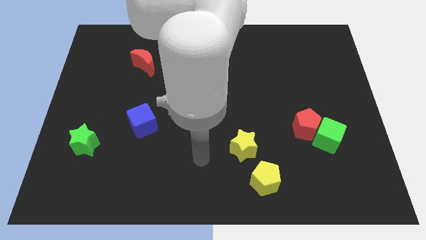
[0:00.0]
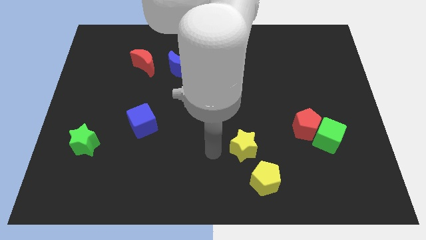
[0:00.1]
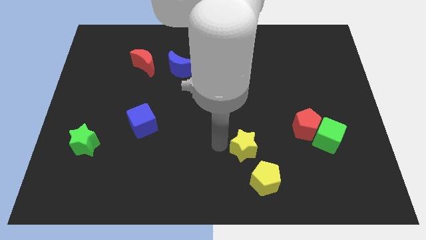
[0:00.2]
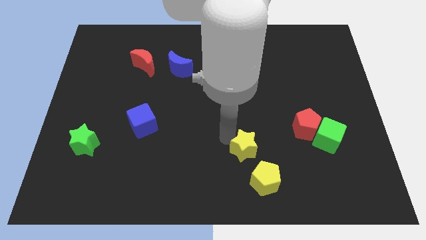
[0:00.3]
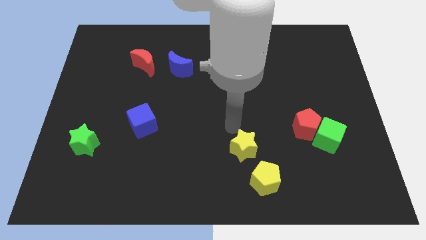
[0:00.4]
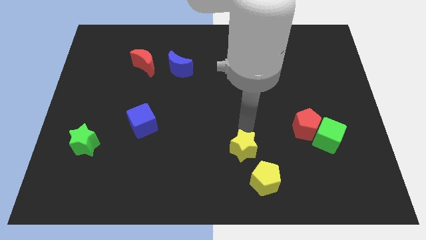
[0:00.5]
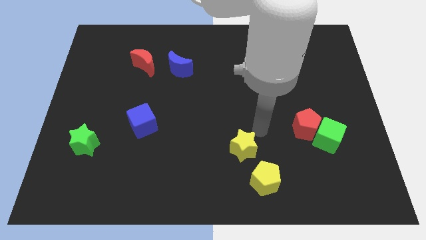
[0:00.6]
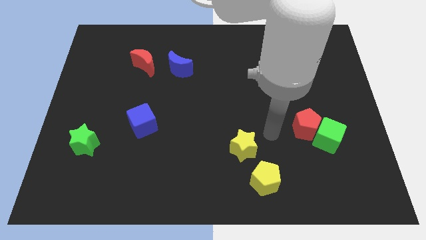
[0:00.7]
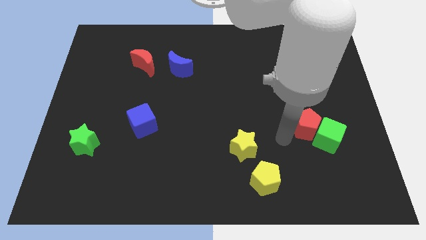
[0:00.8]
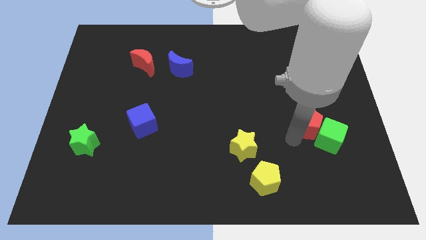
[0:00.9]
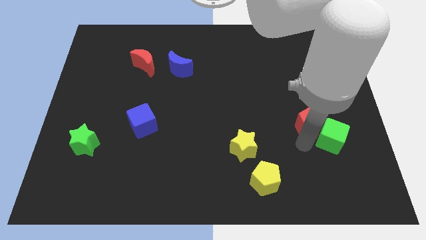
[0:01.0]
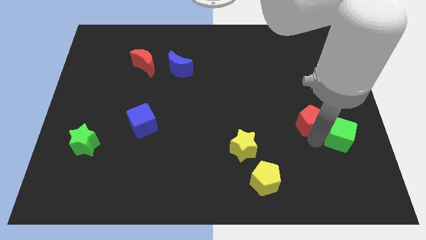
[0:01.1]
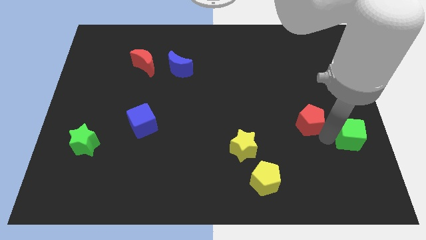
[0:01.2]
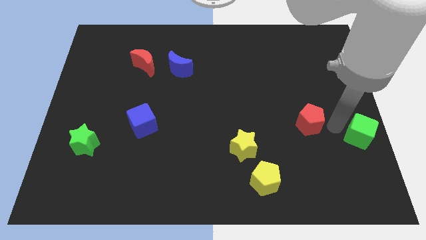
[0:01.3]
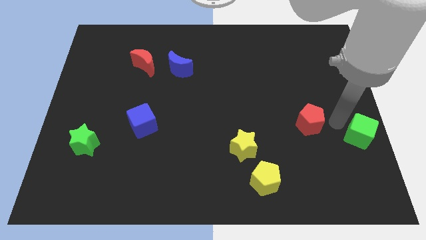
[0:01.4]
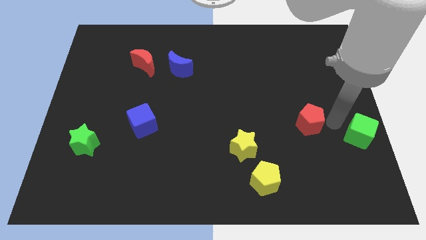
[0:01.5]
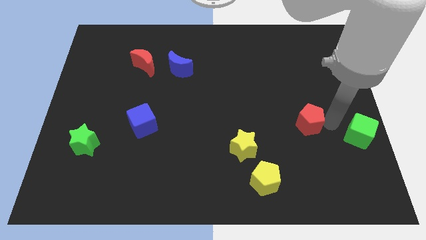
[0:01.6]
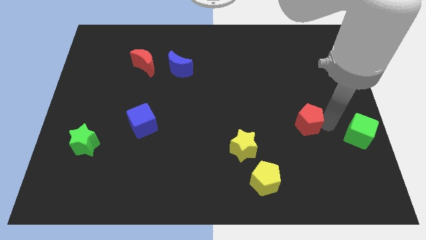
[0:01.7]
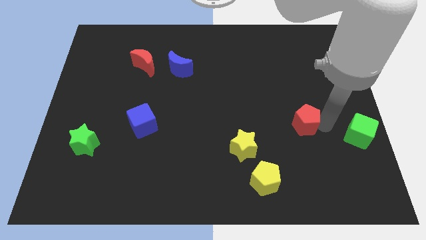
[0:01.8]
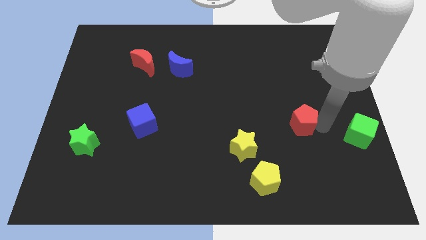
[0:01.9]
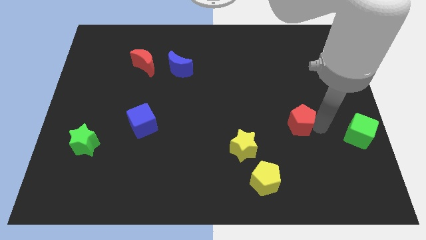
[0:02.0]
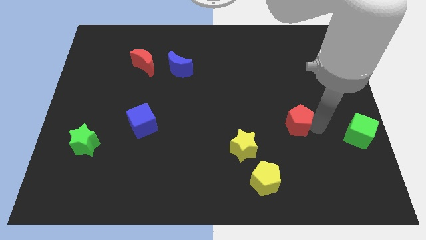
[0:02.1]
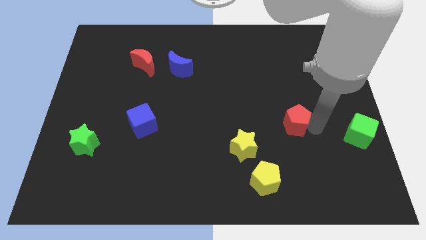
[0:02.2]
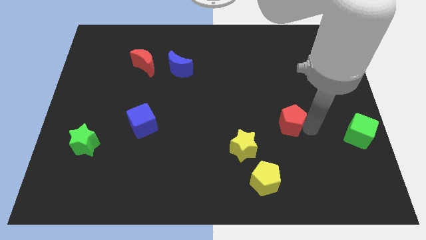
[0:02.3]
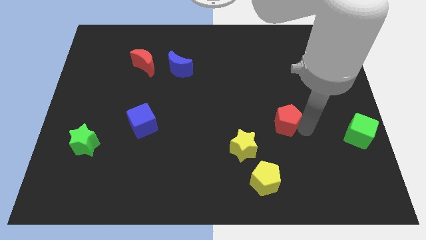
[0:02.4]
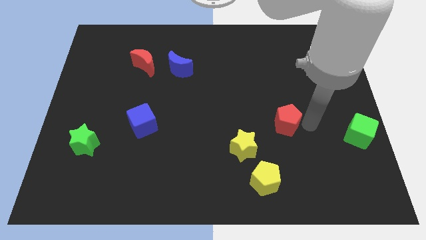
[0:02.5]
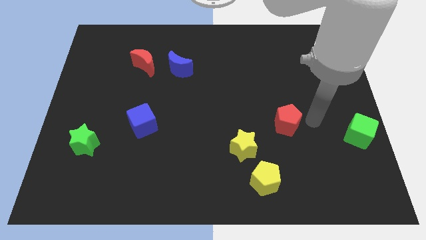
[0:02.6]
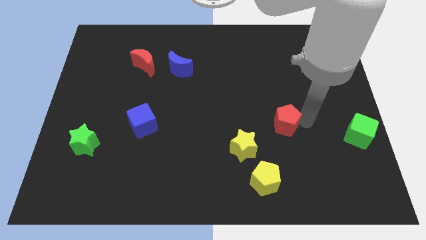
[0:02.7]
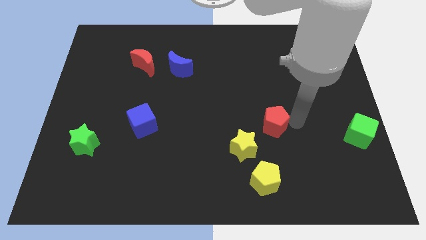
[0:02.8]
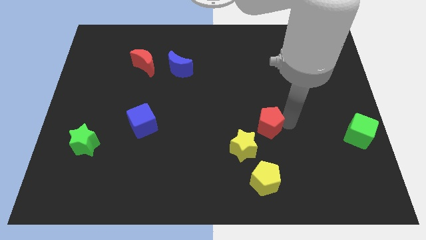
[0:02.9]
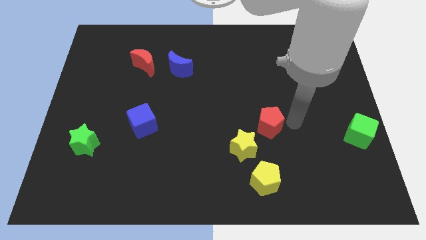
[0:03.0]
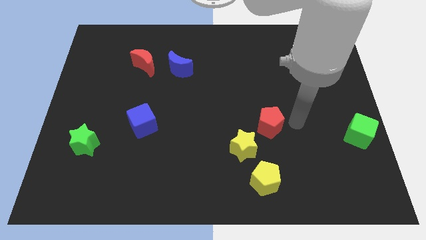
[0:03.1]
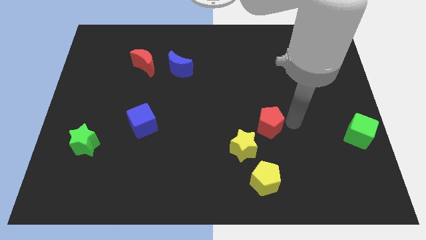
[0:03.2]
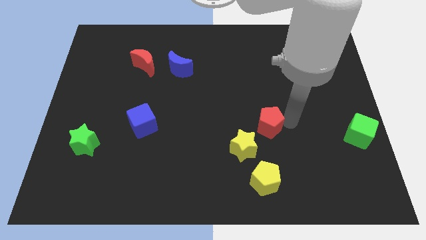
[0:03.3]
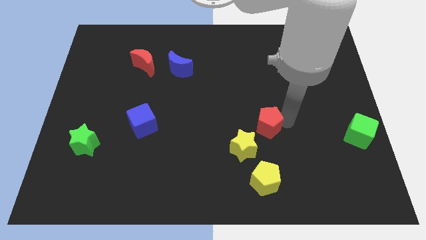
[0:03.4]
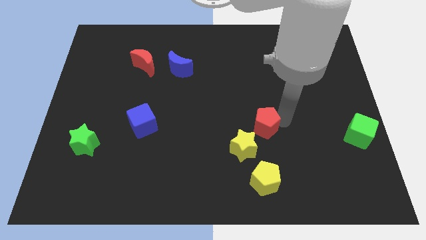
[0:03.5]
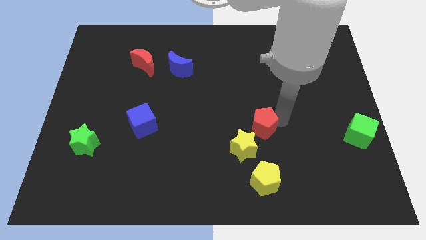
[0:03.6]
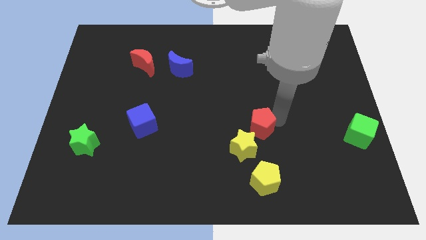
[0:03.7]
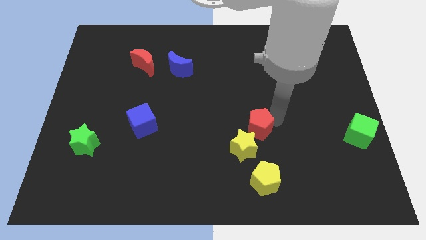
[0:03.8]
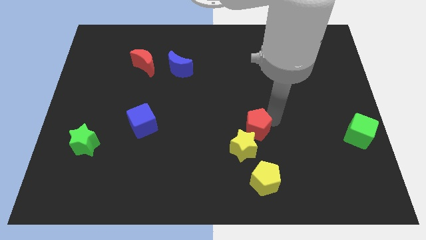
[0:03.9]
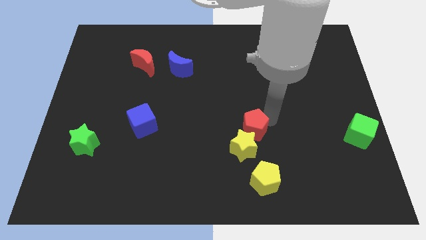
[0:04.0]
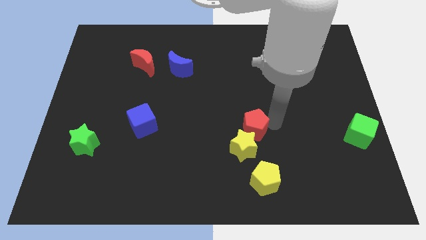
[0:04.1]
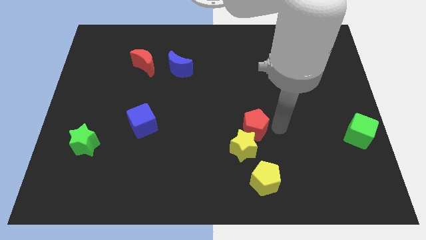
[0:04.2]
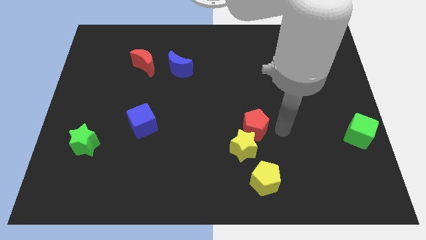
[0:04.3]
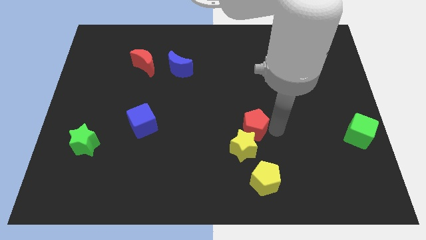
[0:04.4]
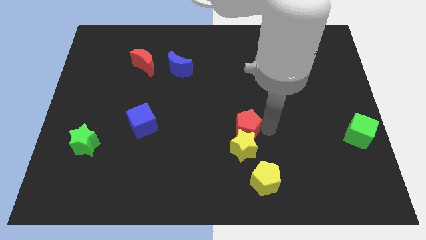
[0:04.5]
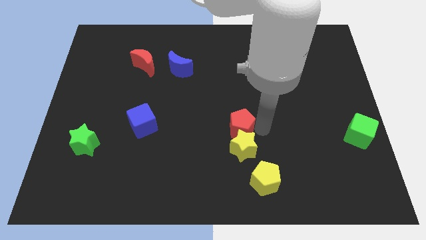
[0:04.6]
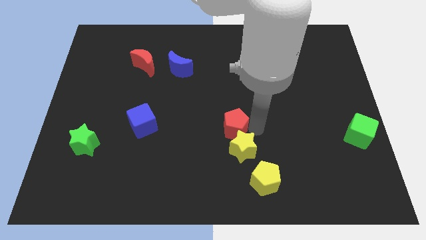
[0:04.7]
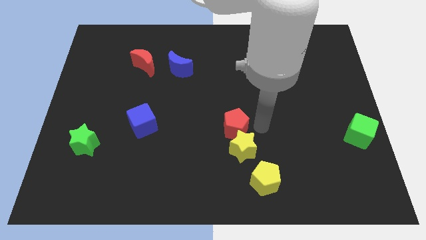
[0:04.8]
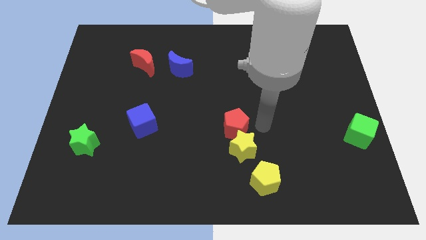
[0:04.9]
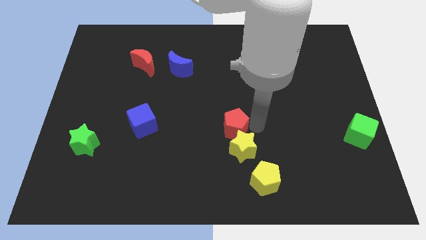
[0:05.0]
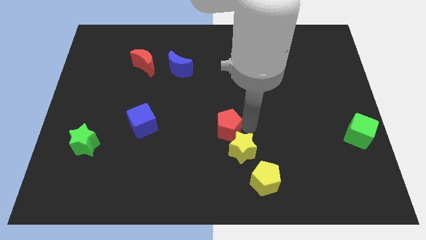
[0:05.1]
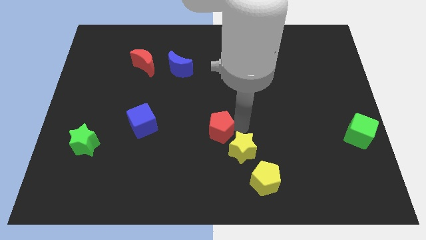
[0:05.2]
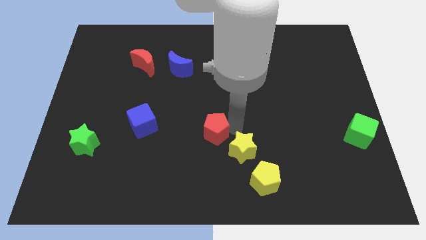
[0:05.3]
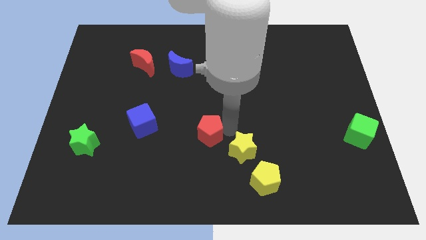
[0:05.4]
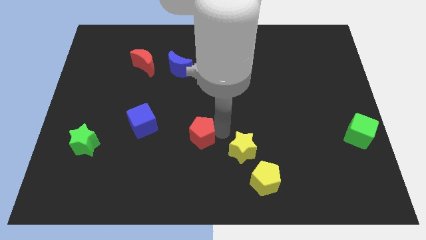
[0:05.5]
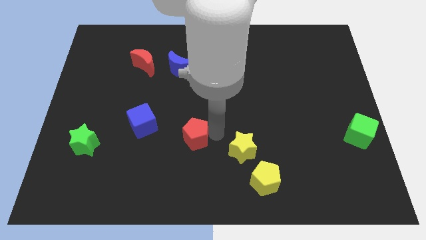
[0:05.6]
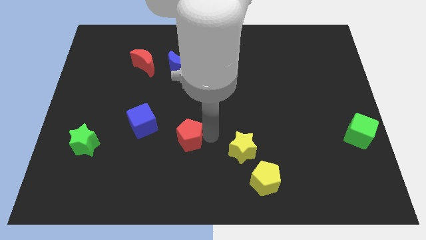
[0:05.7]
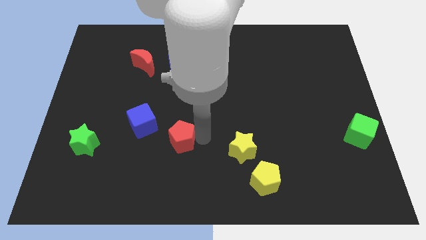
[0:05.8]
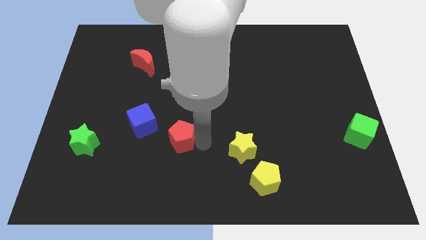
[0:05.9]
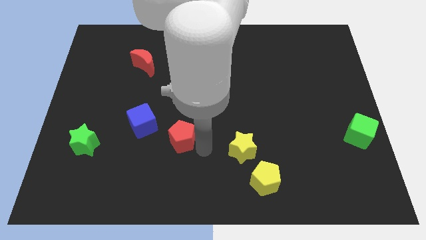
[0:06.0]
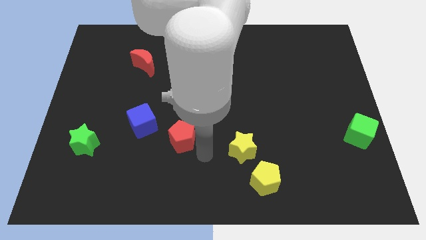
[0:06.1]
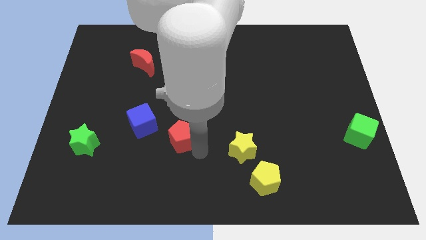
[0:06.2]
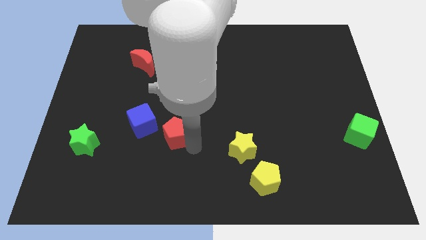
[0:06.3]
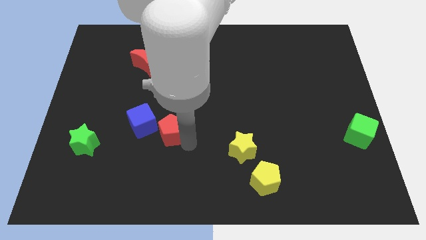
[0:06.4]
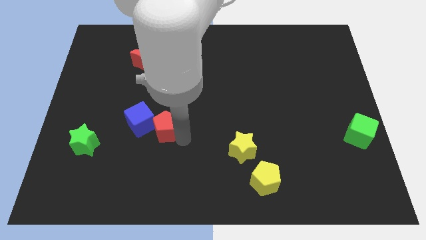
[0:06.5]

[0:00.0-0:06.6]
move the red pentagon close to the blue cube

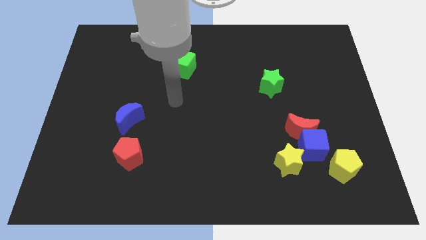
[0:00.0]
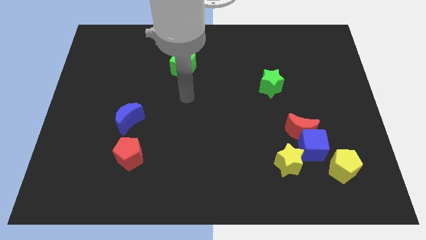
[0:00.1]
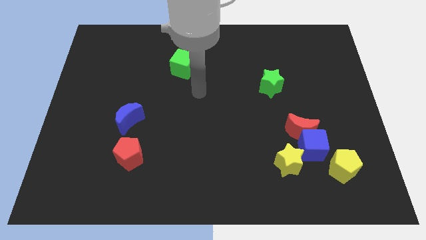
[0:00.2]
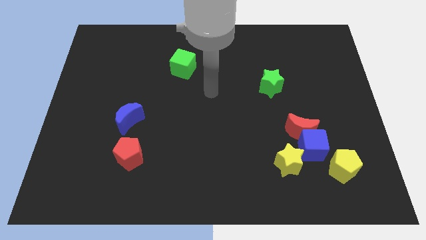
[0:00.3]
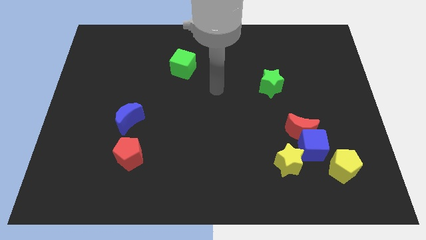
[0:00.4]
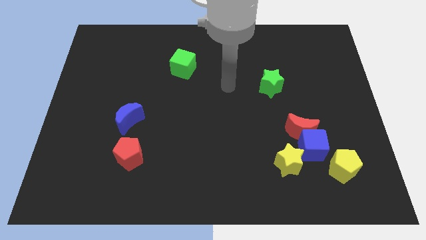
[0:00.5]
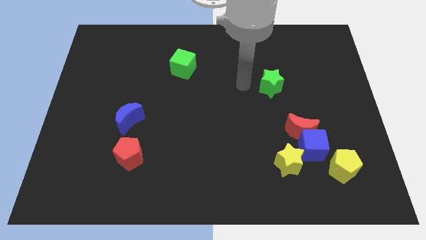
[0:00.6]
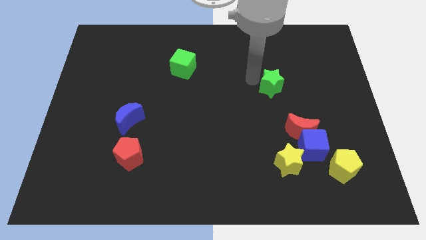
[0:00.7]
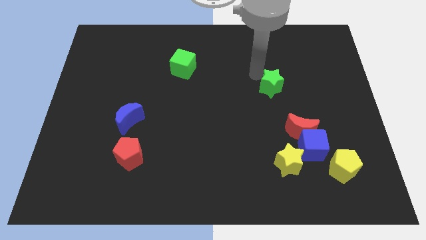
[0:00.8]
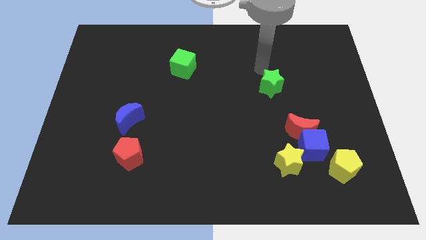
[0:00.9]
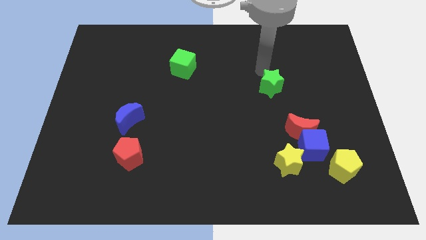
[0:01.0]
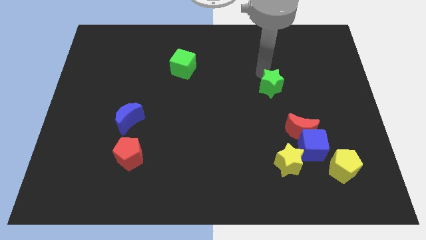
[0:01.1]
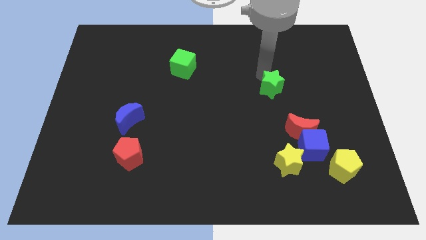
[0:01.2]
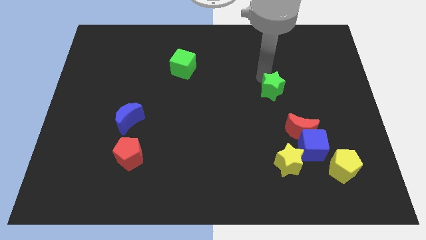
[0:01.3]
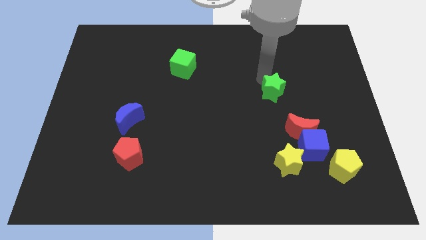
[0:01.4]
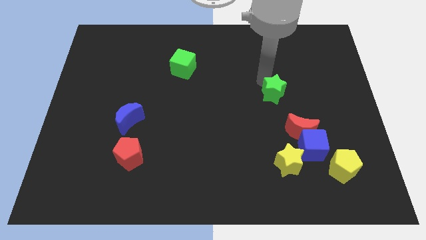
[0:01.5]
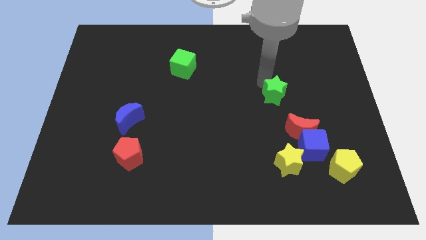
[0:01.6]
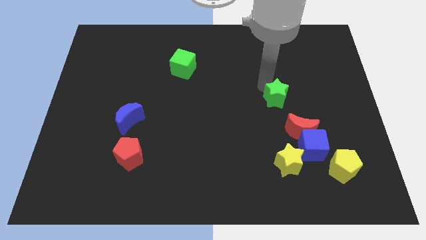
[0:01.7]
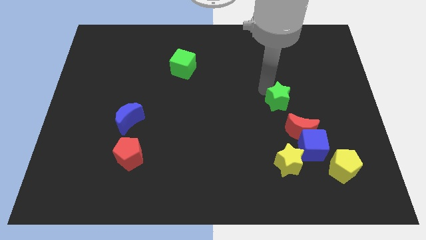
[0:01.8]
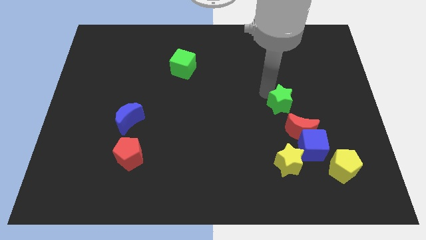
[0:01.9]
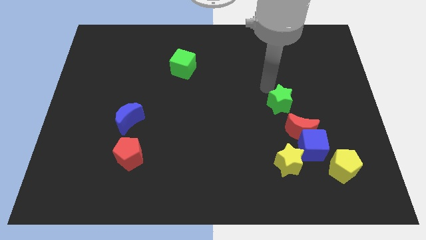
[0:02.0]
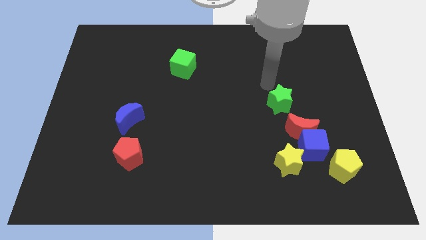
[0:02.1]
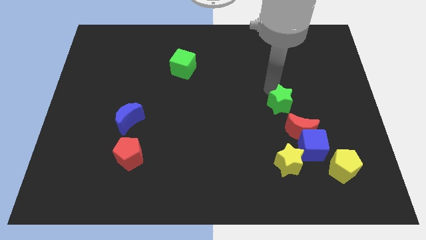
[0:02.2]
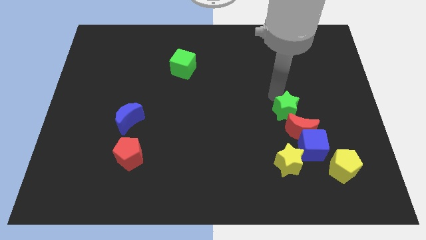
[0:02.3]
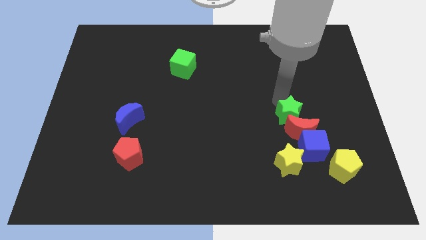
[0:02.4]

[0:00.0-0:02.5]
move the green star to the red moon
